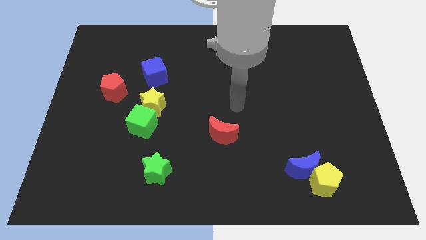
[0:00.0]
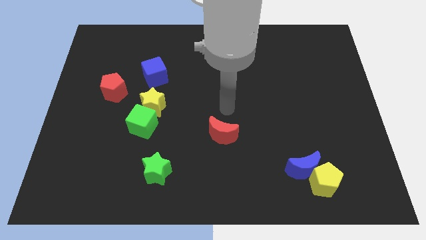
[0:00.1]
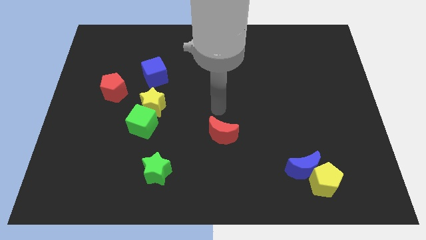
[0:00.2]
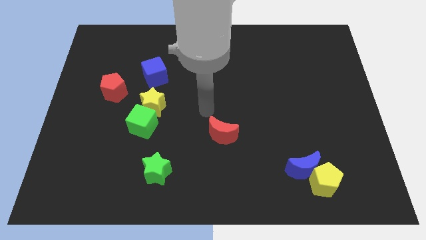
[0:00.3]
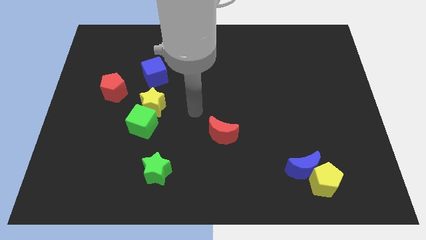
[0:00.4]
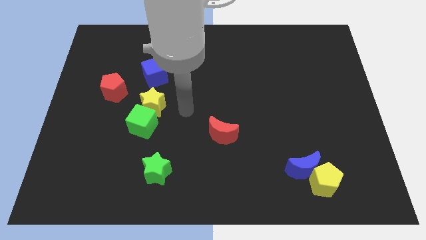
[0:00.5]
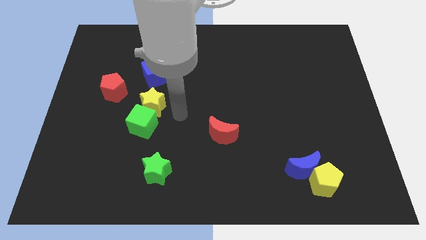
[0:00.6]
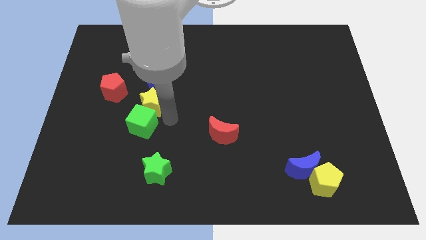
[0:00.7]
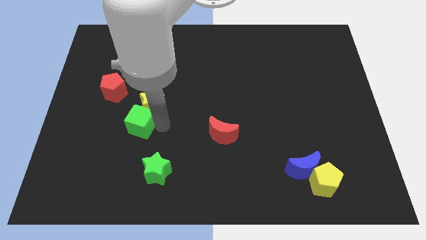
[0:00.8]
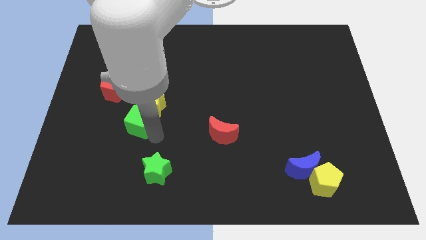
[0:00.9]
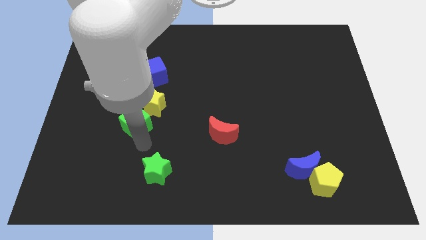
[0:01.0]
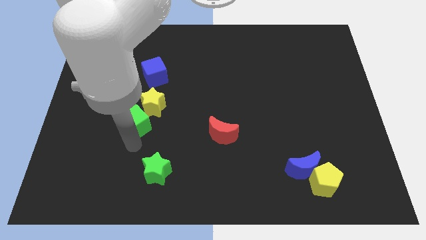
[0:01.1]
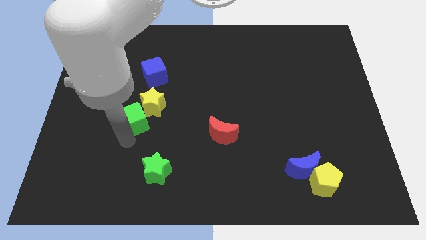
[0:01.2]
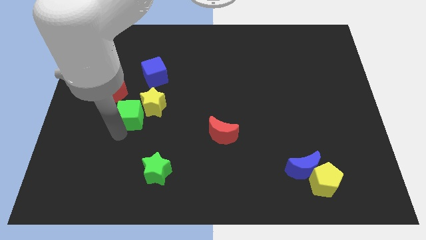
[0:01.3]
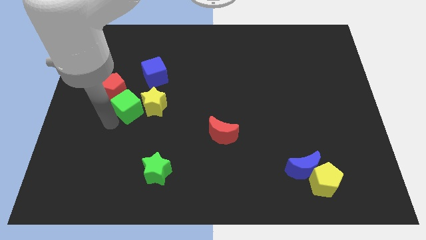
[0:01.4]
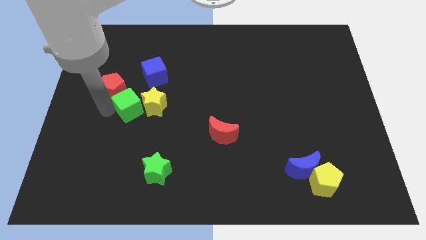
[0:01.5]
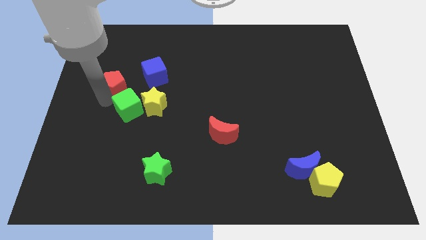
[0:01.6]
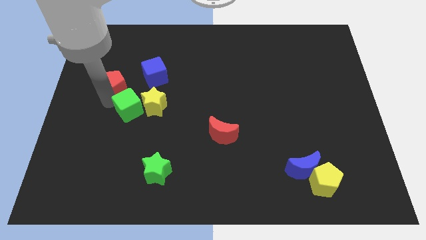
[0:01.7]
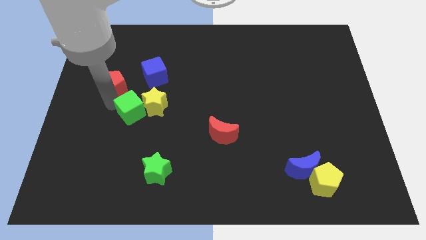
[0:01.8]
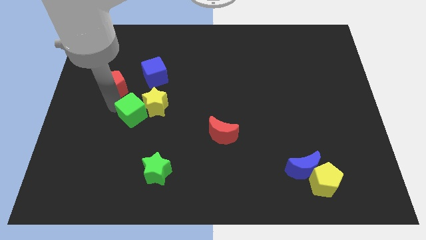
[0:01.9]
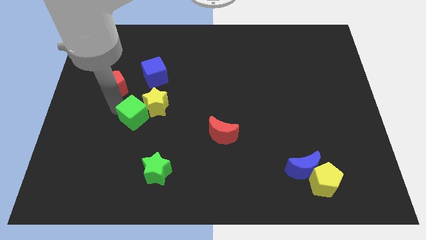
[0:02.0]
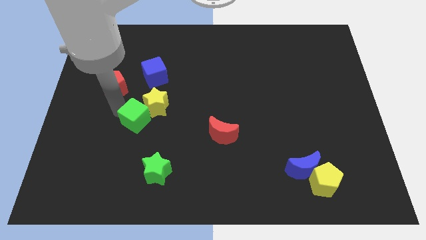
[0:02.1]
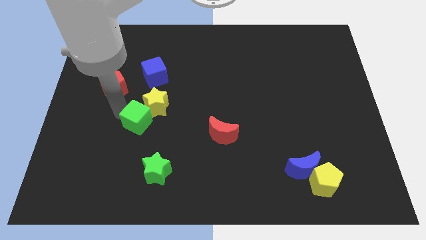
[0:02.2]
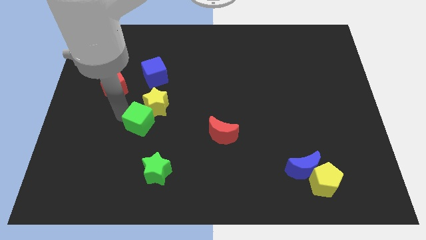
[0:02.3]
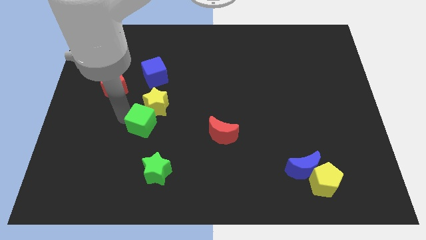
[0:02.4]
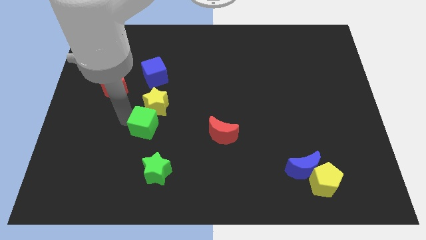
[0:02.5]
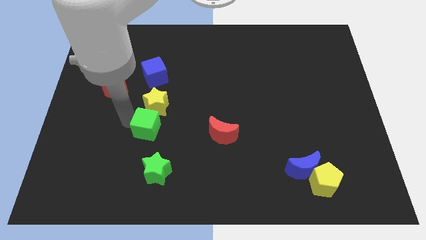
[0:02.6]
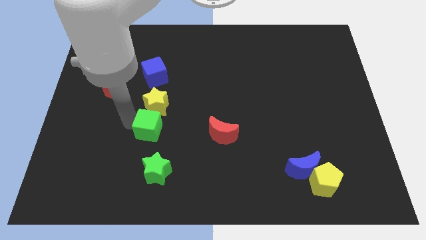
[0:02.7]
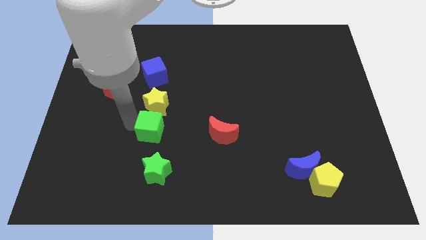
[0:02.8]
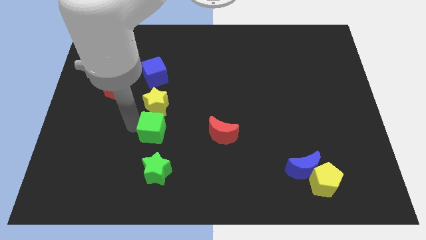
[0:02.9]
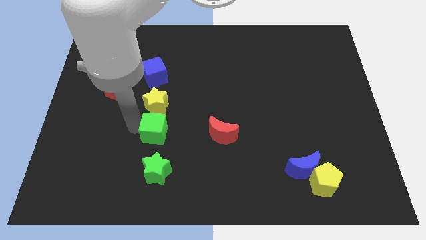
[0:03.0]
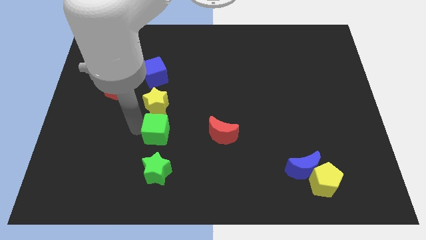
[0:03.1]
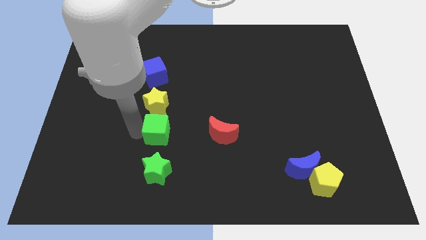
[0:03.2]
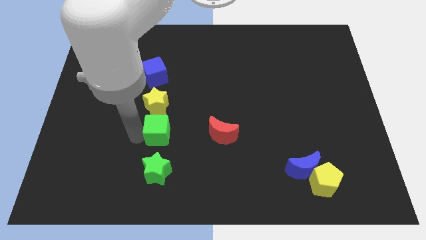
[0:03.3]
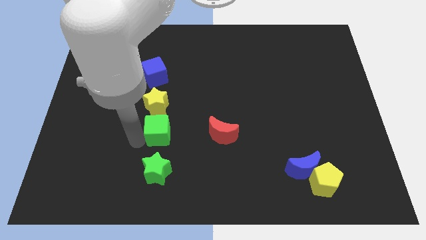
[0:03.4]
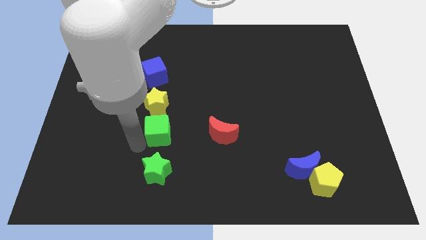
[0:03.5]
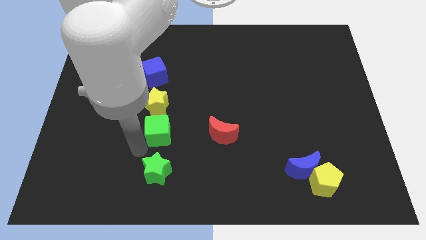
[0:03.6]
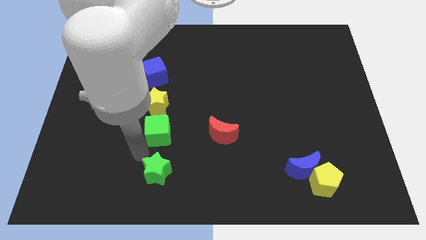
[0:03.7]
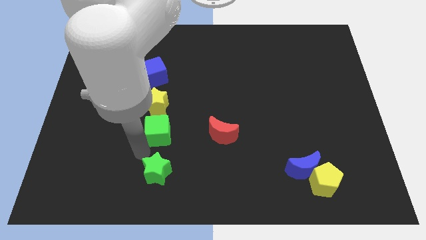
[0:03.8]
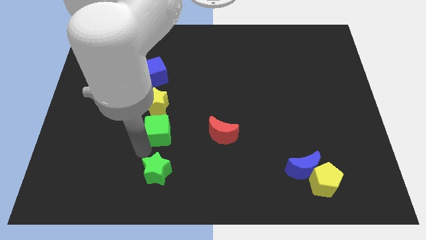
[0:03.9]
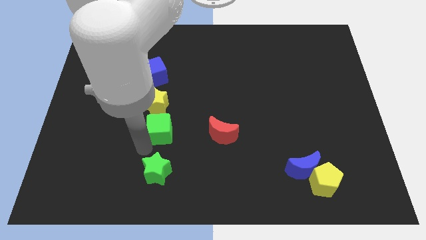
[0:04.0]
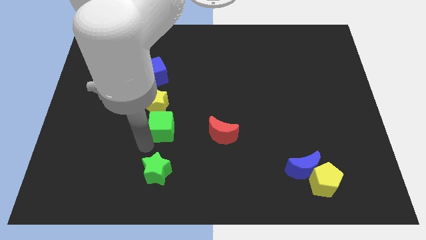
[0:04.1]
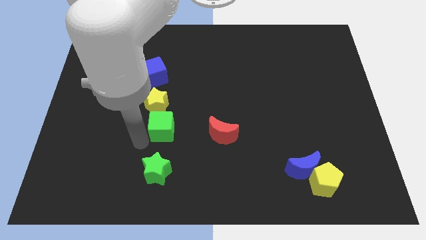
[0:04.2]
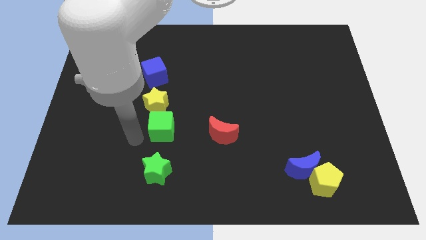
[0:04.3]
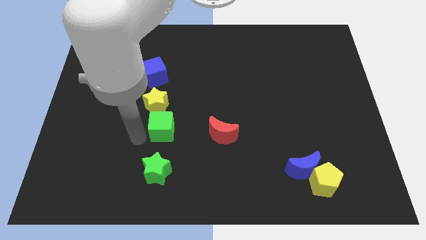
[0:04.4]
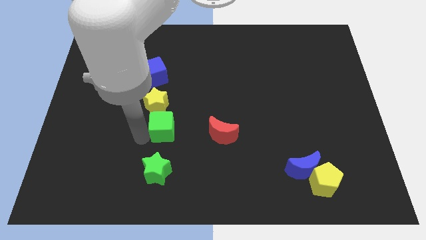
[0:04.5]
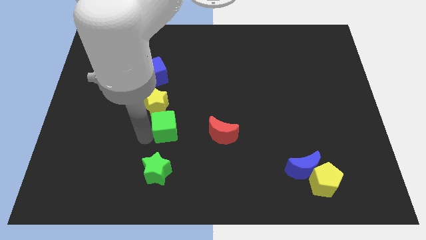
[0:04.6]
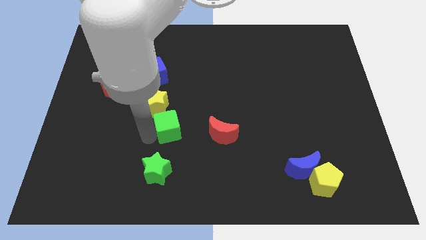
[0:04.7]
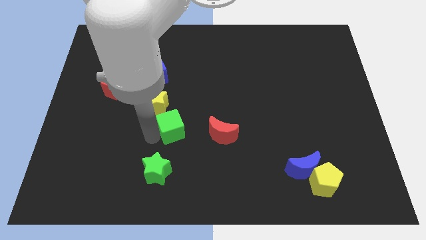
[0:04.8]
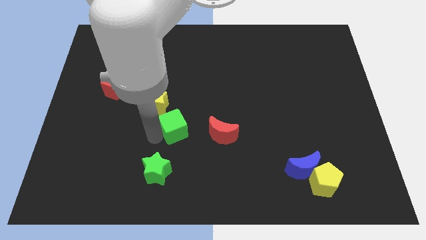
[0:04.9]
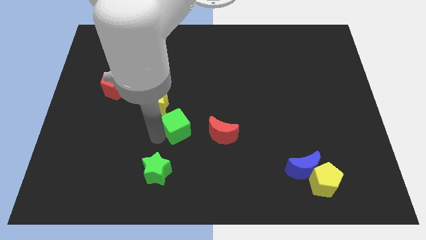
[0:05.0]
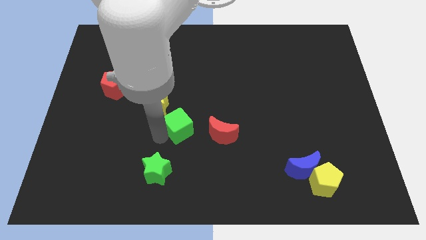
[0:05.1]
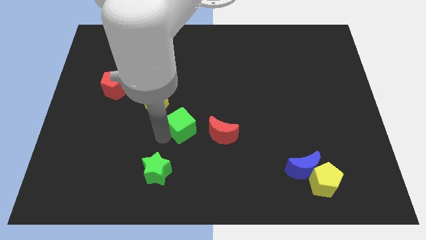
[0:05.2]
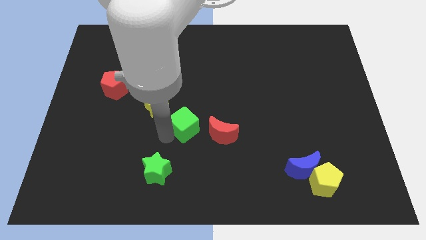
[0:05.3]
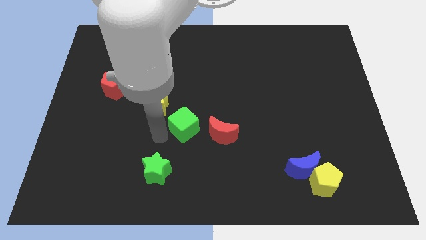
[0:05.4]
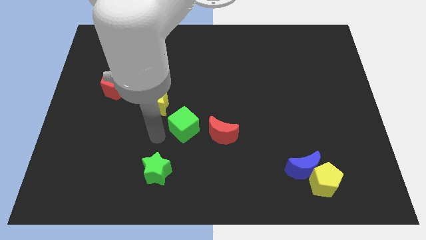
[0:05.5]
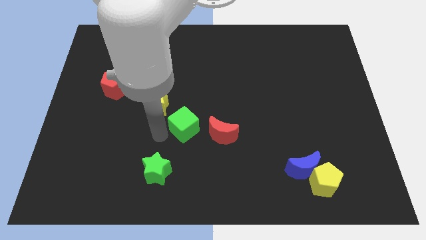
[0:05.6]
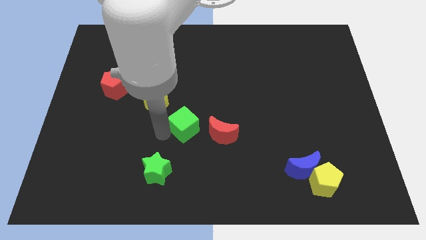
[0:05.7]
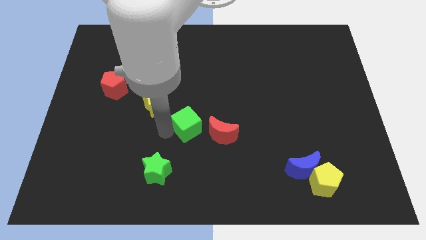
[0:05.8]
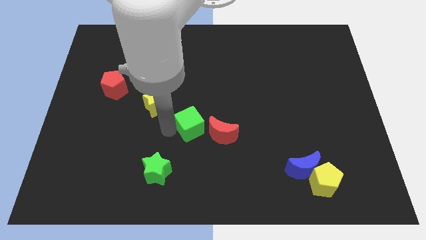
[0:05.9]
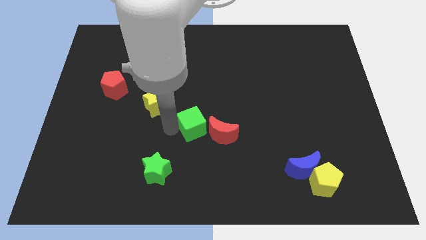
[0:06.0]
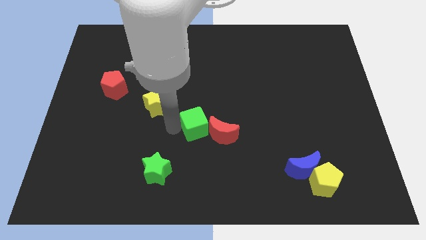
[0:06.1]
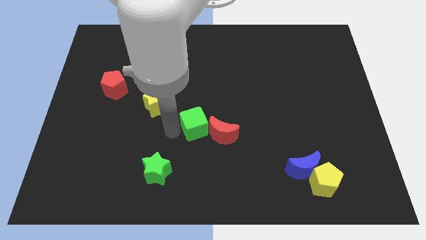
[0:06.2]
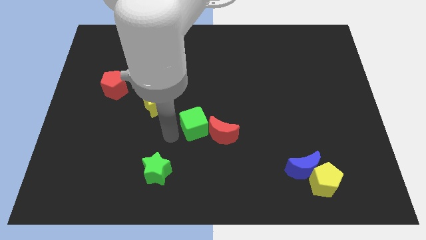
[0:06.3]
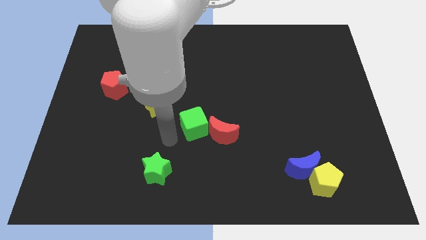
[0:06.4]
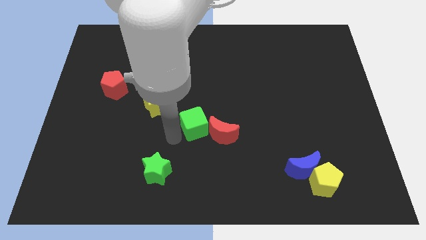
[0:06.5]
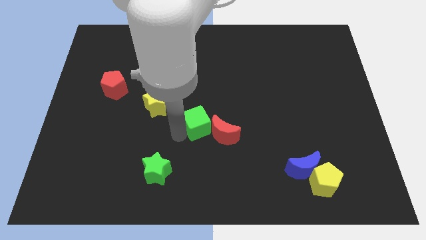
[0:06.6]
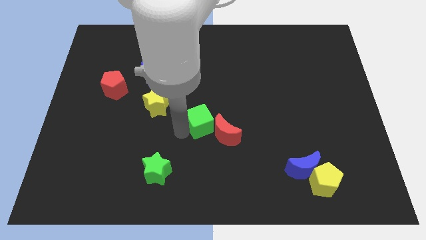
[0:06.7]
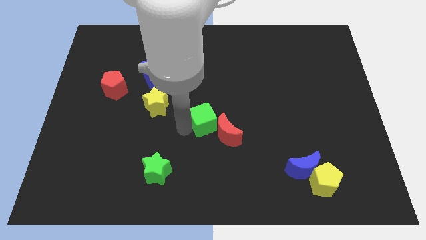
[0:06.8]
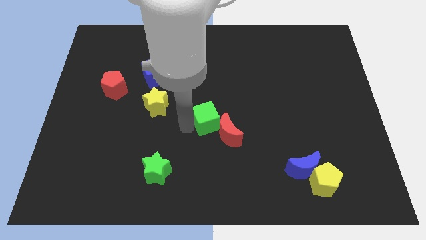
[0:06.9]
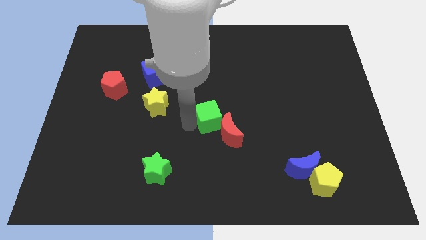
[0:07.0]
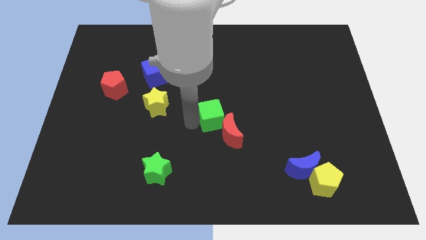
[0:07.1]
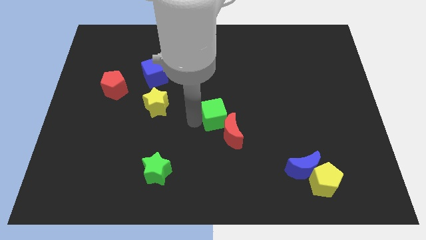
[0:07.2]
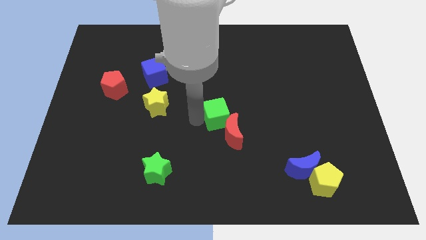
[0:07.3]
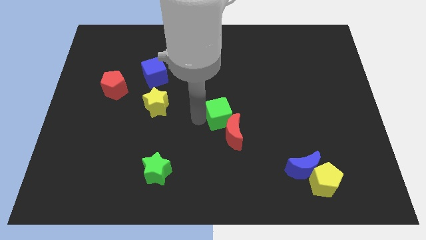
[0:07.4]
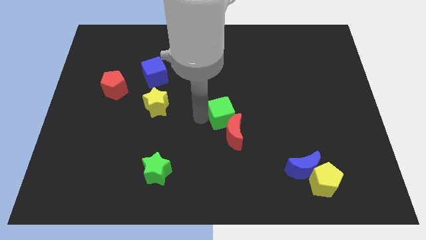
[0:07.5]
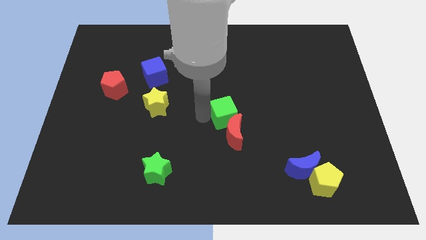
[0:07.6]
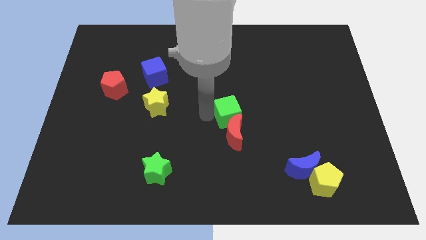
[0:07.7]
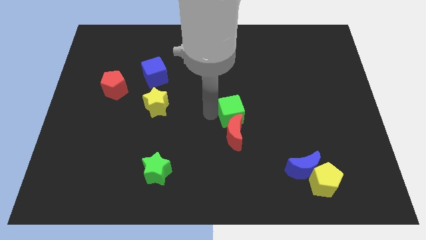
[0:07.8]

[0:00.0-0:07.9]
slide the green cube to the right

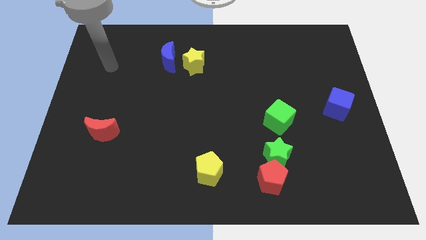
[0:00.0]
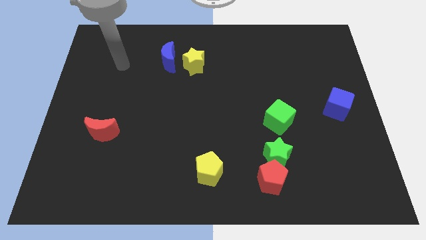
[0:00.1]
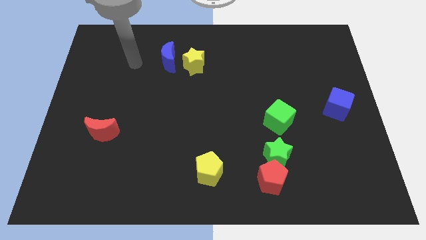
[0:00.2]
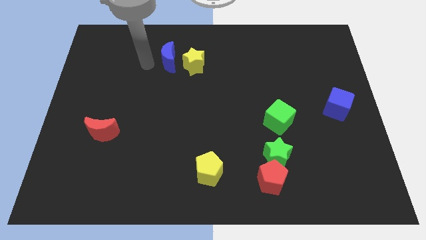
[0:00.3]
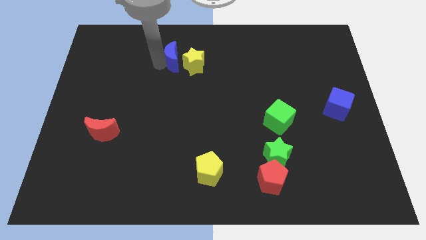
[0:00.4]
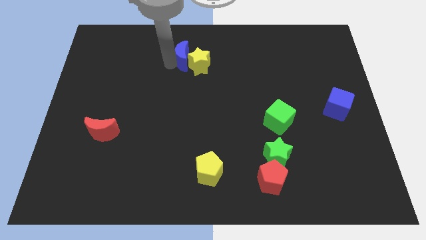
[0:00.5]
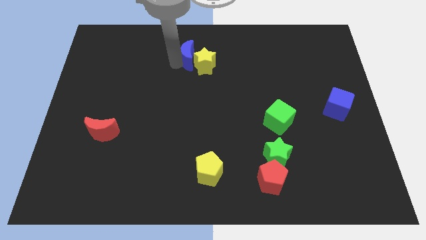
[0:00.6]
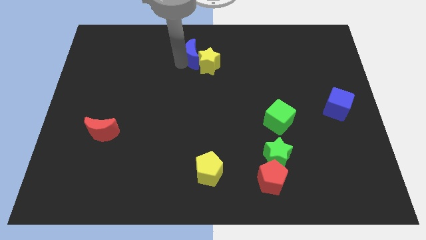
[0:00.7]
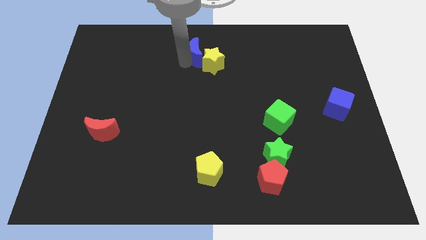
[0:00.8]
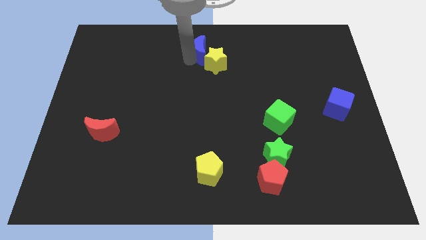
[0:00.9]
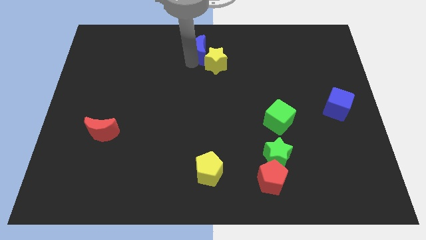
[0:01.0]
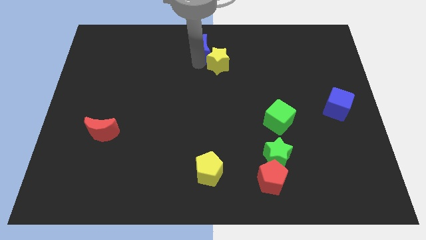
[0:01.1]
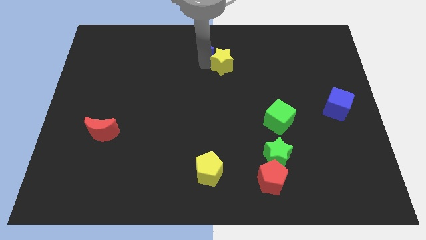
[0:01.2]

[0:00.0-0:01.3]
slightly push the yellow star to the right
